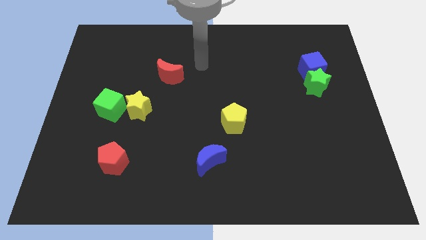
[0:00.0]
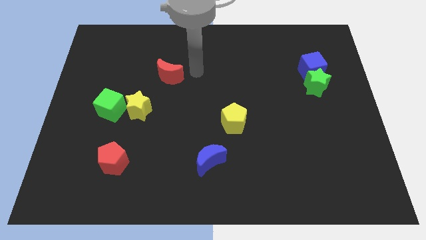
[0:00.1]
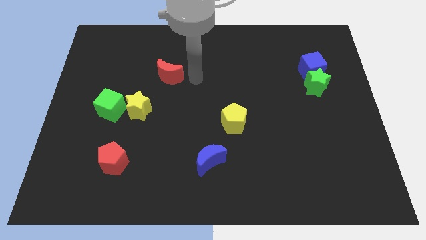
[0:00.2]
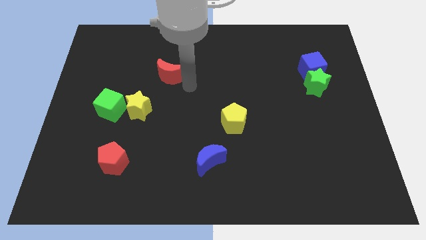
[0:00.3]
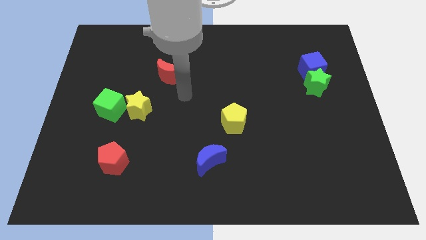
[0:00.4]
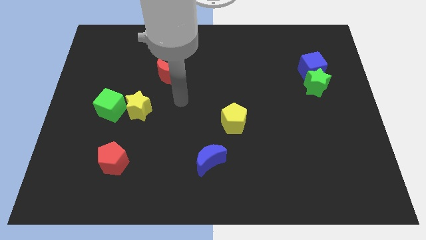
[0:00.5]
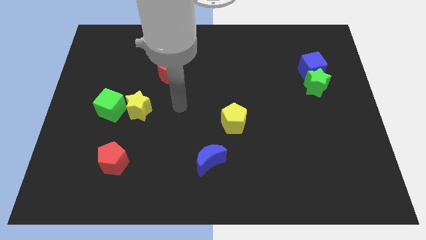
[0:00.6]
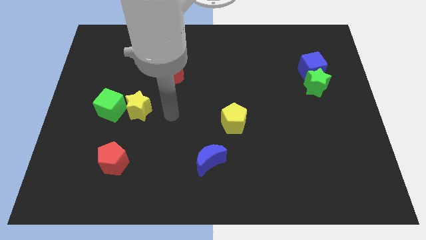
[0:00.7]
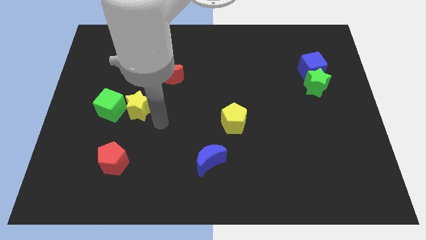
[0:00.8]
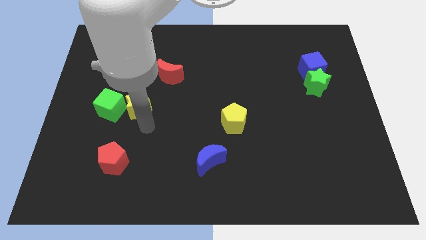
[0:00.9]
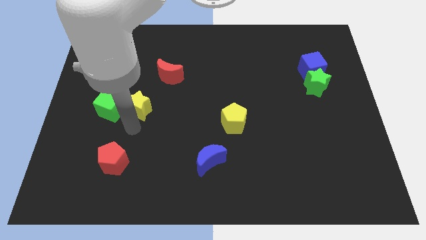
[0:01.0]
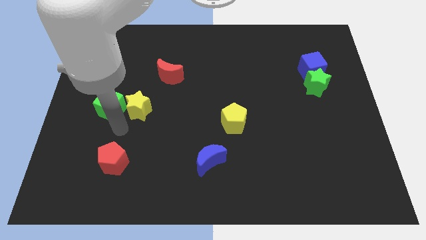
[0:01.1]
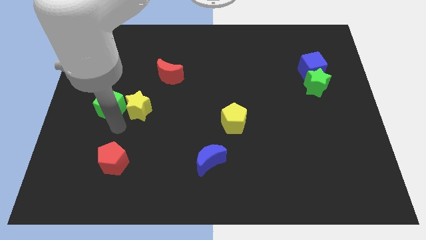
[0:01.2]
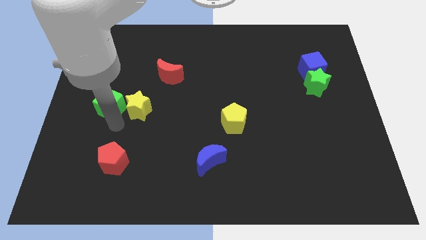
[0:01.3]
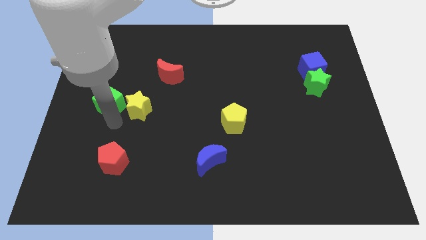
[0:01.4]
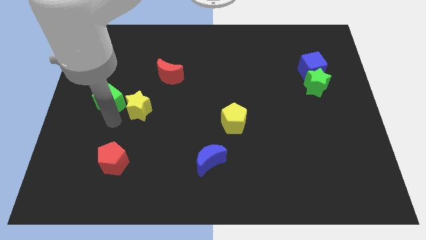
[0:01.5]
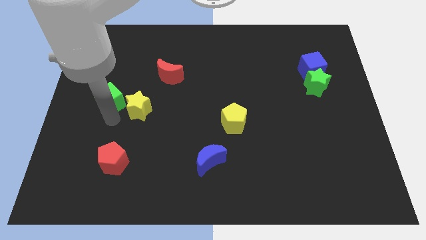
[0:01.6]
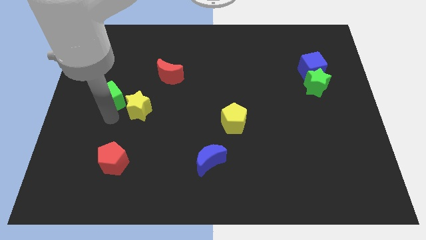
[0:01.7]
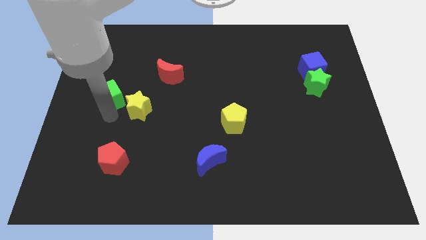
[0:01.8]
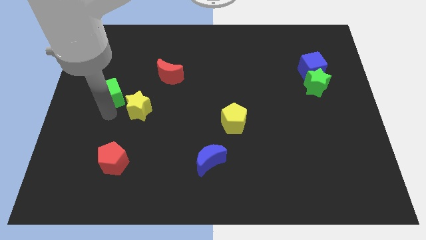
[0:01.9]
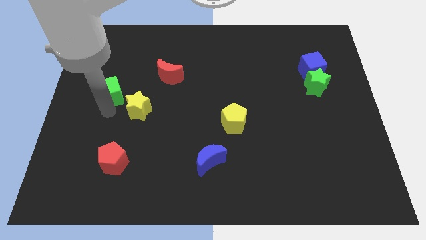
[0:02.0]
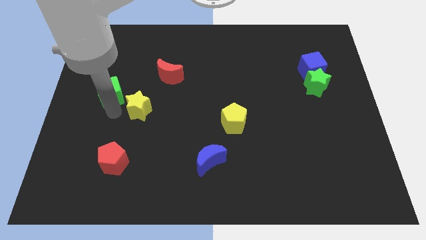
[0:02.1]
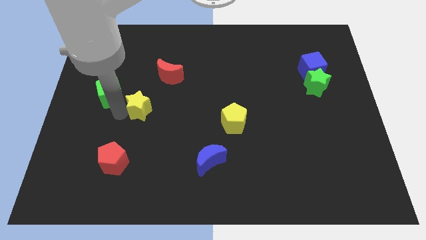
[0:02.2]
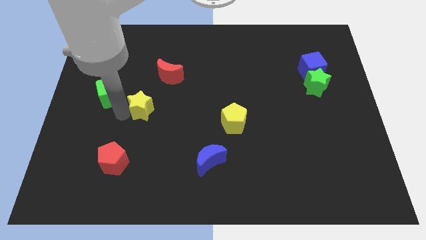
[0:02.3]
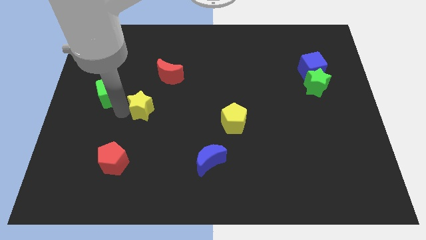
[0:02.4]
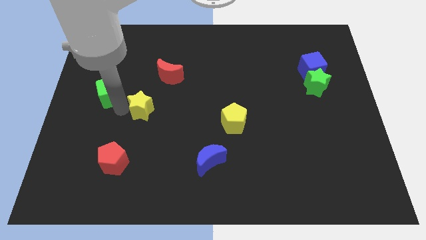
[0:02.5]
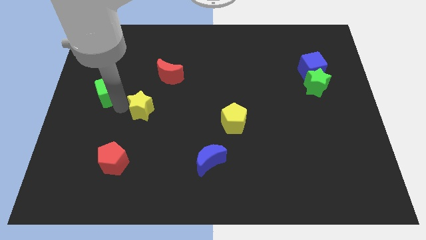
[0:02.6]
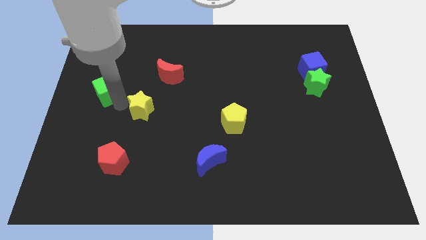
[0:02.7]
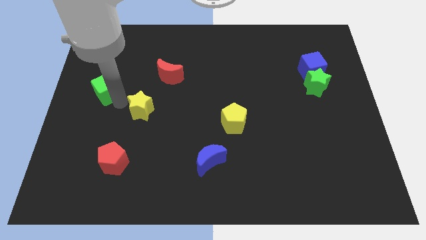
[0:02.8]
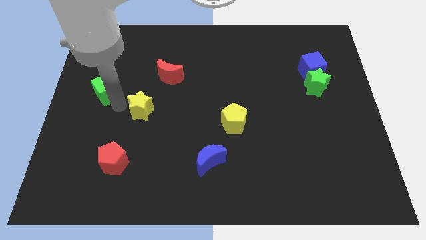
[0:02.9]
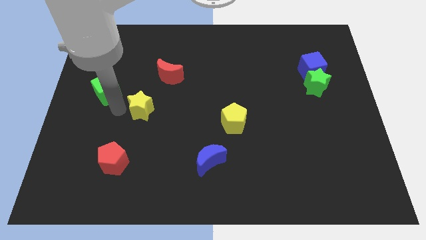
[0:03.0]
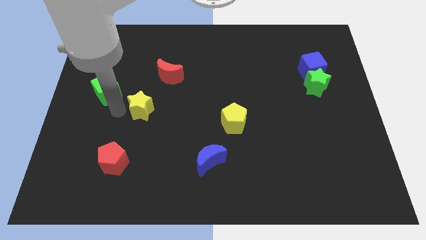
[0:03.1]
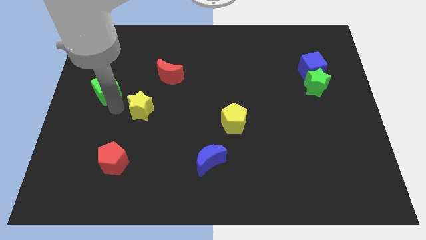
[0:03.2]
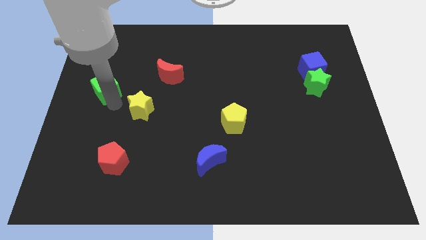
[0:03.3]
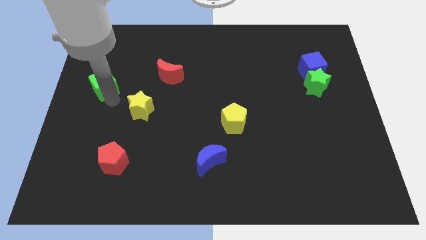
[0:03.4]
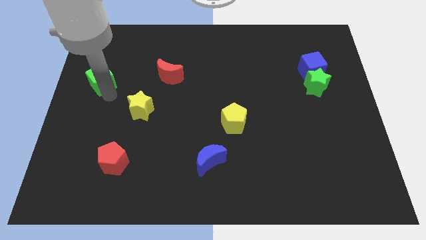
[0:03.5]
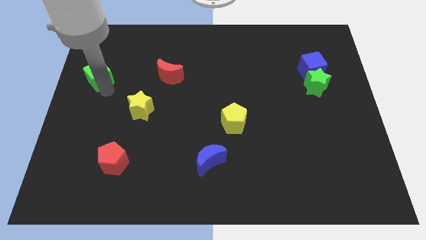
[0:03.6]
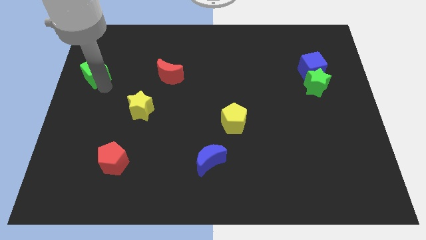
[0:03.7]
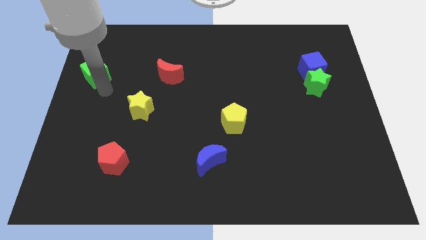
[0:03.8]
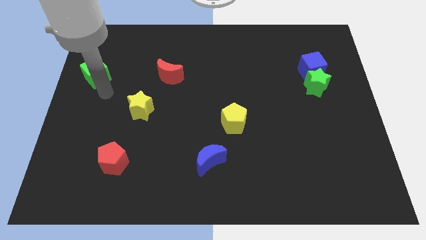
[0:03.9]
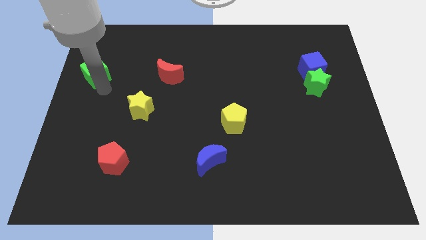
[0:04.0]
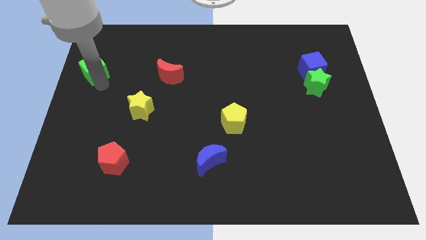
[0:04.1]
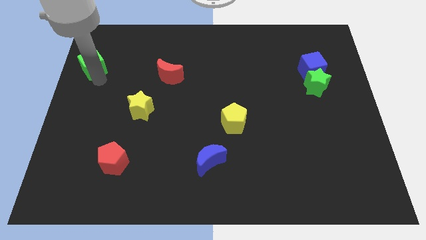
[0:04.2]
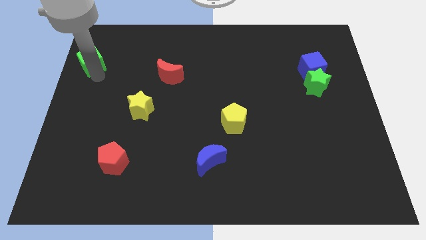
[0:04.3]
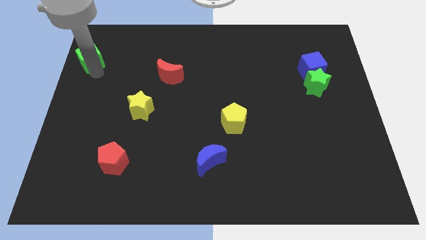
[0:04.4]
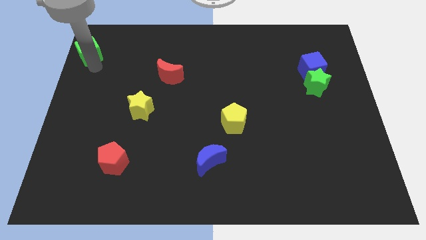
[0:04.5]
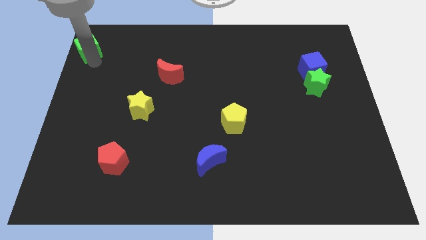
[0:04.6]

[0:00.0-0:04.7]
move the green cube to the top left

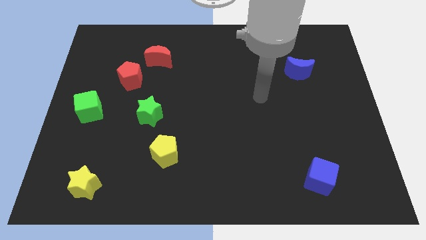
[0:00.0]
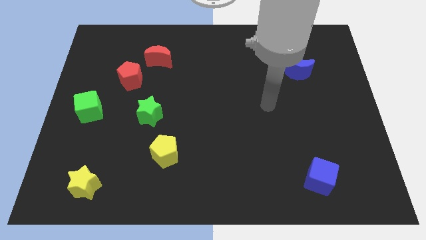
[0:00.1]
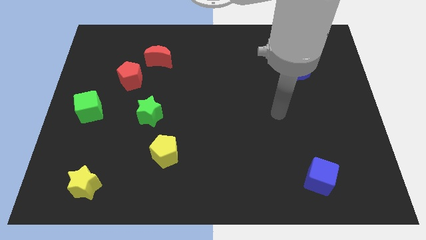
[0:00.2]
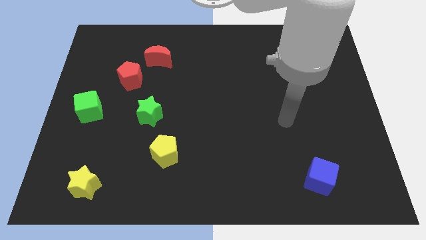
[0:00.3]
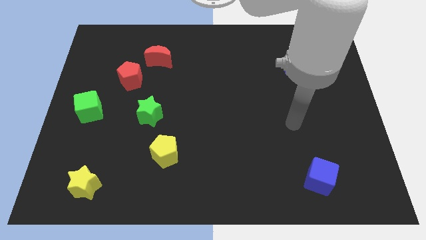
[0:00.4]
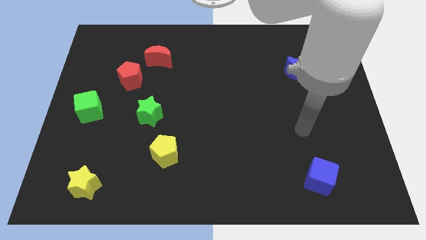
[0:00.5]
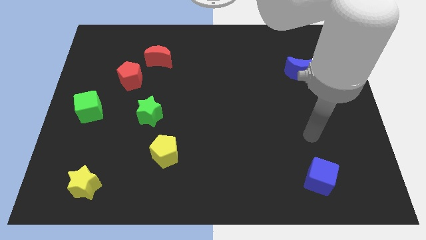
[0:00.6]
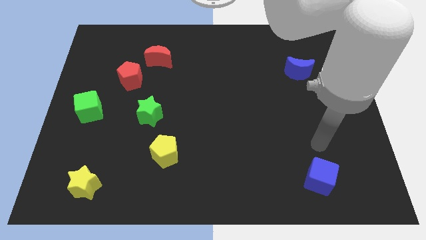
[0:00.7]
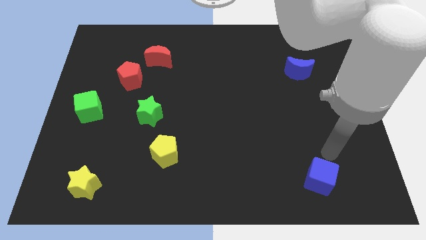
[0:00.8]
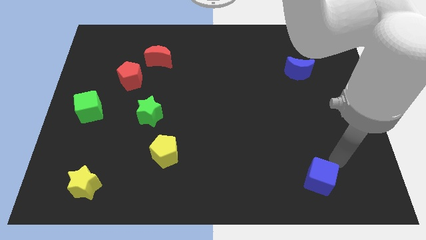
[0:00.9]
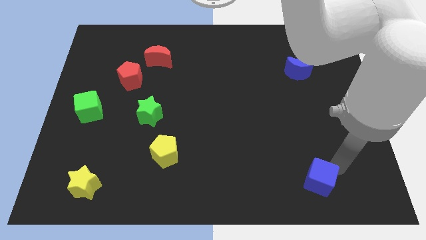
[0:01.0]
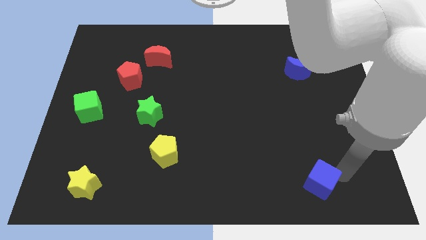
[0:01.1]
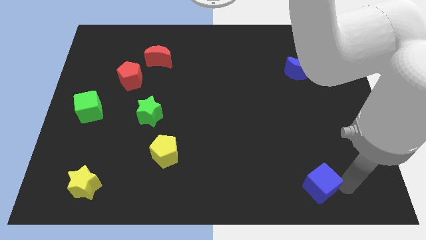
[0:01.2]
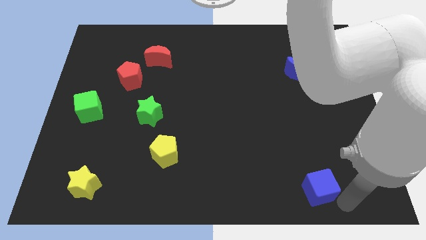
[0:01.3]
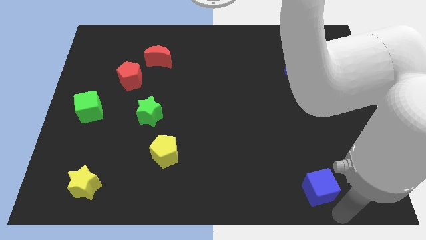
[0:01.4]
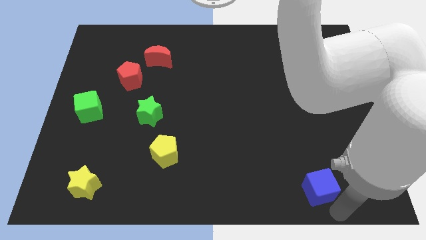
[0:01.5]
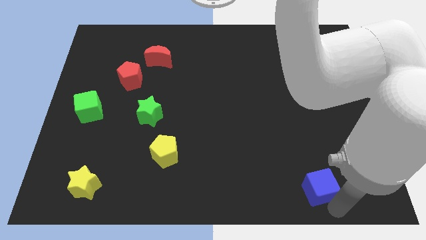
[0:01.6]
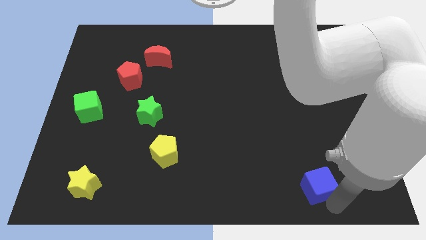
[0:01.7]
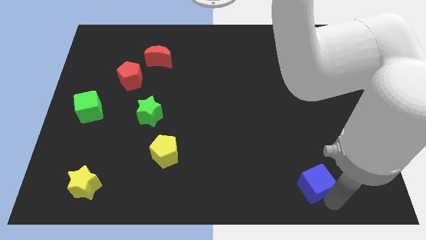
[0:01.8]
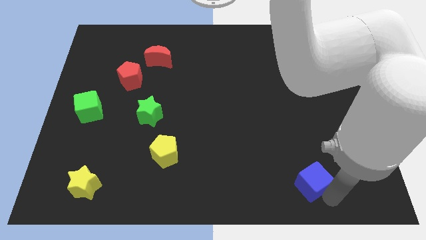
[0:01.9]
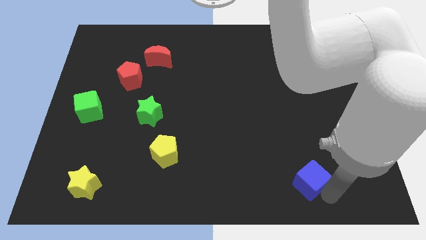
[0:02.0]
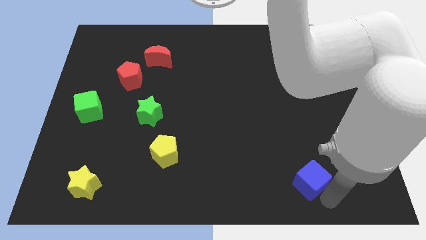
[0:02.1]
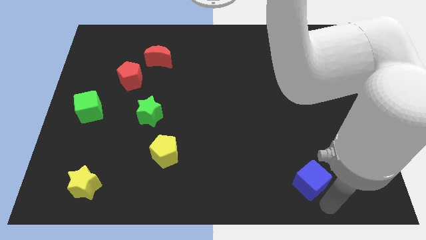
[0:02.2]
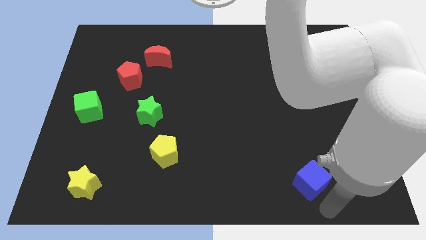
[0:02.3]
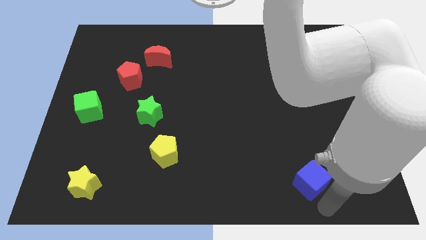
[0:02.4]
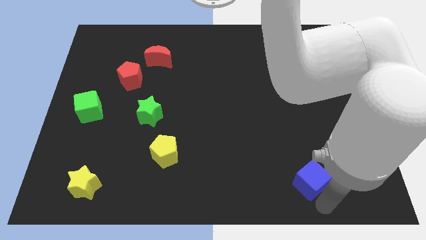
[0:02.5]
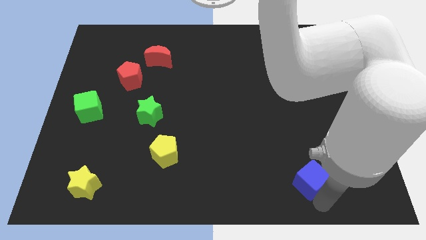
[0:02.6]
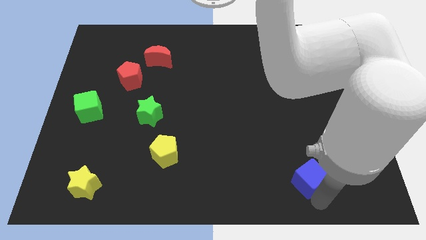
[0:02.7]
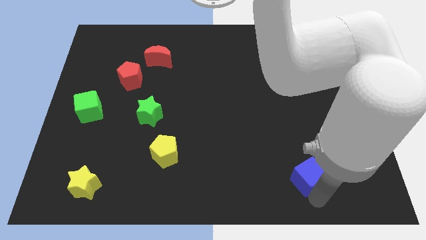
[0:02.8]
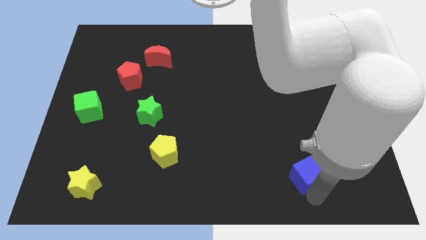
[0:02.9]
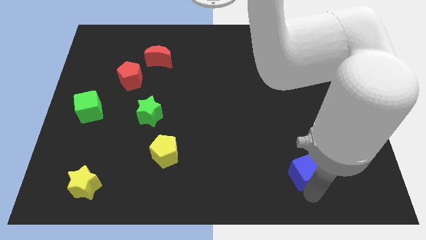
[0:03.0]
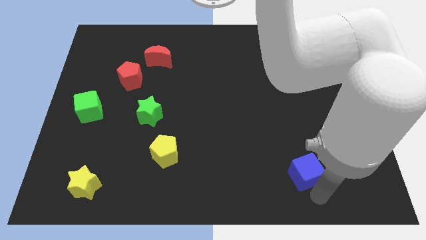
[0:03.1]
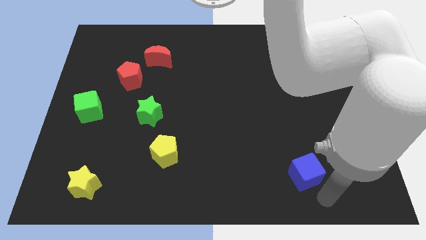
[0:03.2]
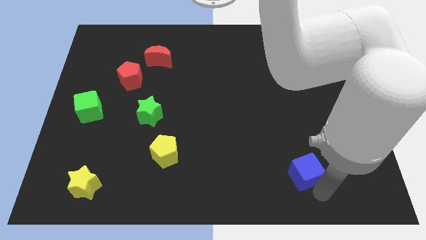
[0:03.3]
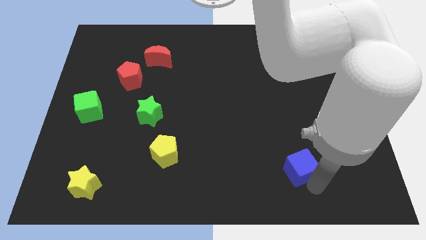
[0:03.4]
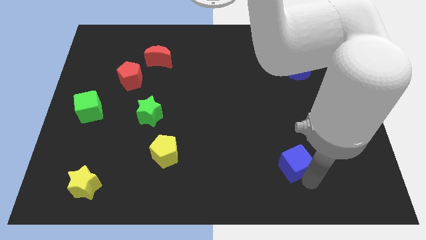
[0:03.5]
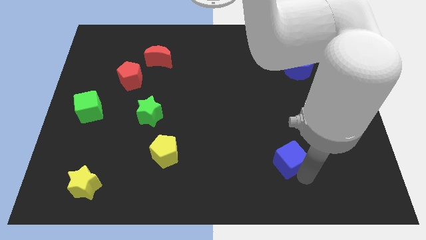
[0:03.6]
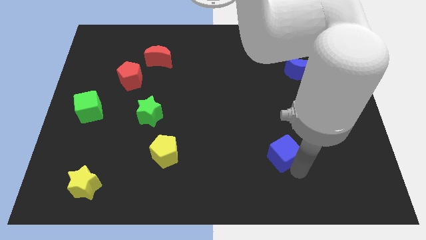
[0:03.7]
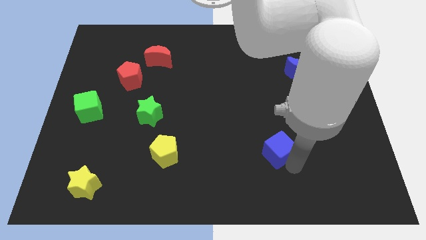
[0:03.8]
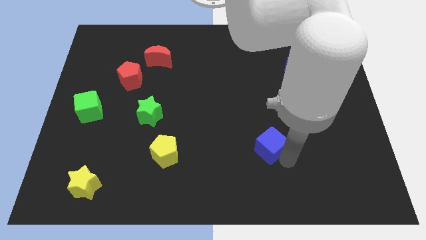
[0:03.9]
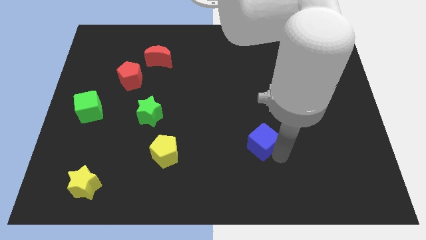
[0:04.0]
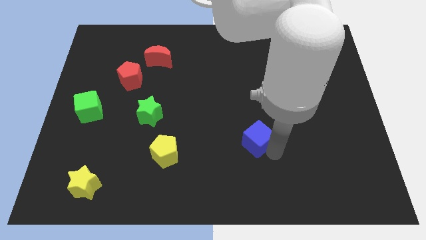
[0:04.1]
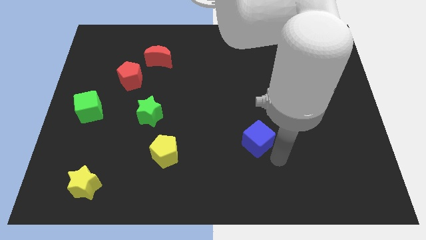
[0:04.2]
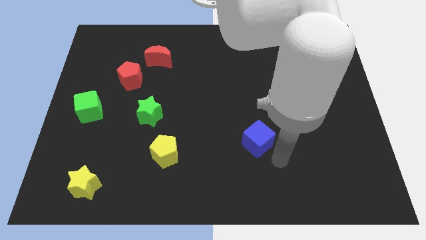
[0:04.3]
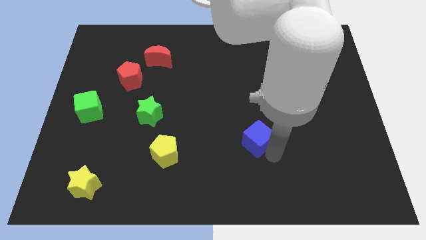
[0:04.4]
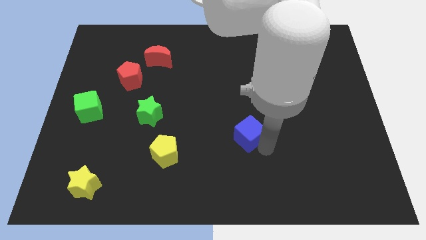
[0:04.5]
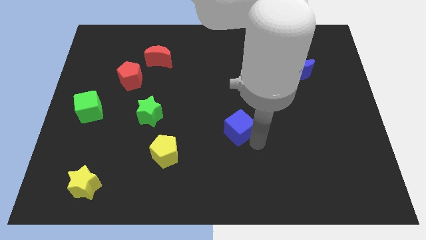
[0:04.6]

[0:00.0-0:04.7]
put the blue cube to the middle
